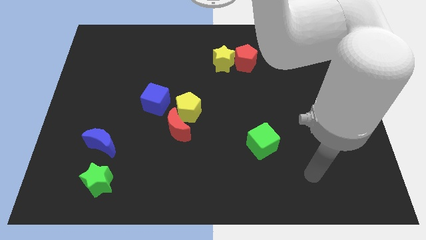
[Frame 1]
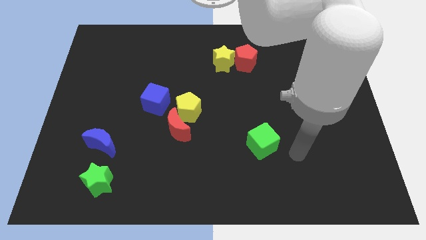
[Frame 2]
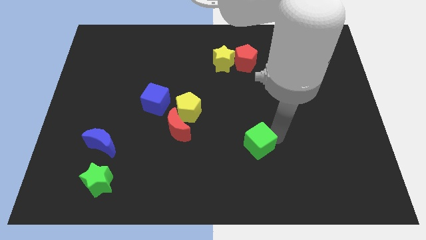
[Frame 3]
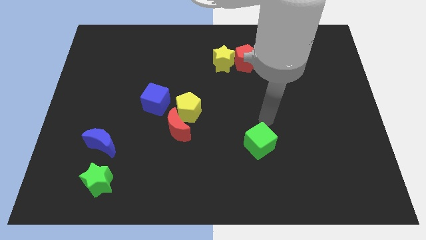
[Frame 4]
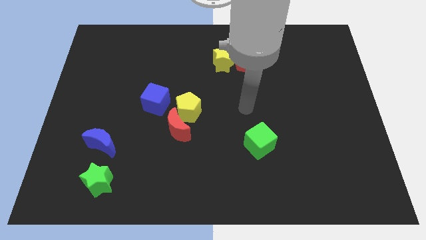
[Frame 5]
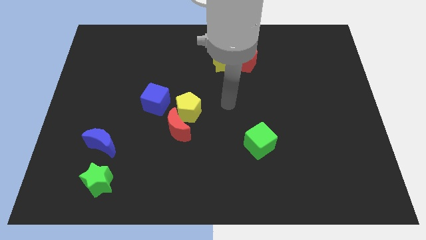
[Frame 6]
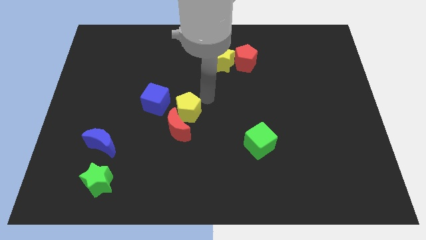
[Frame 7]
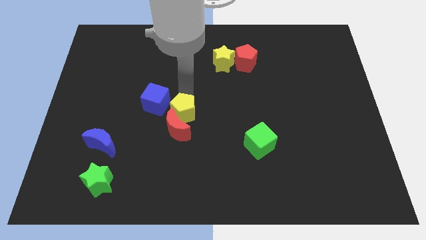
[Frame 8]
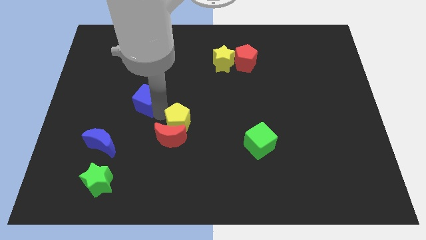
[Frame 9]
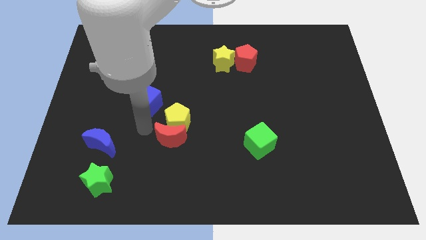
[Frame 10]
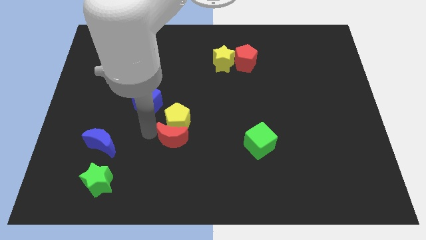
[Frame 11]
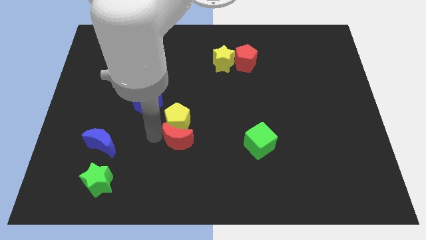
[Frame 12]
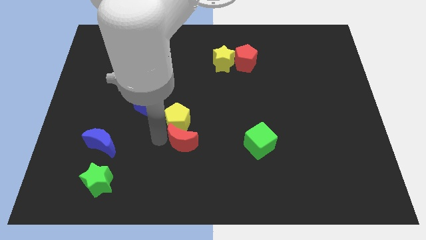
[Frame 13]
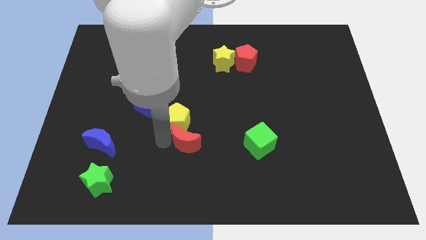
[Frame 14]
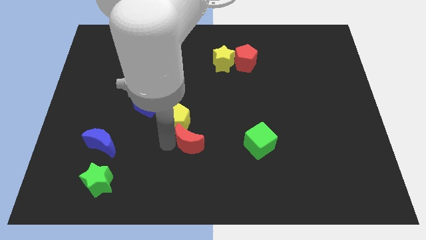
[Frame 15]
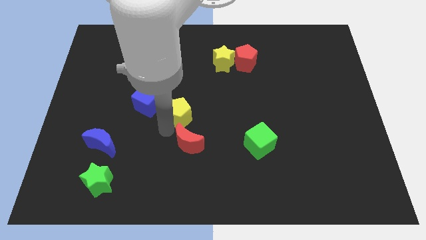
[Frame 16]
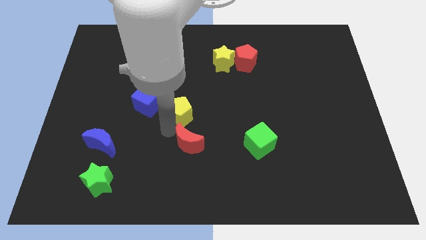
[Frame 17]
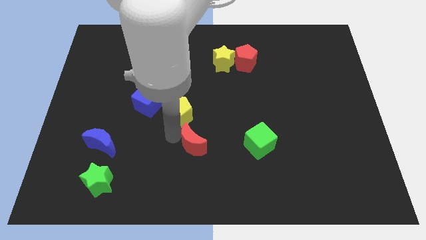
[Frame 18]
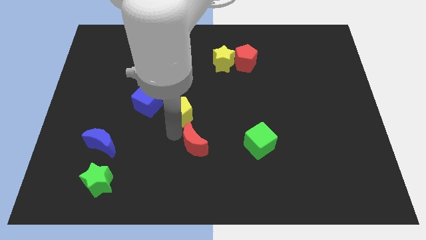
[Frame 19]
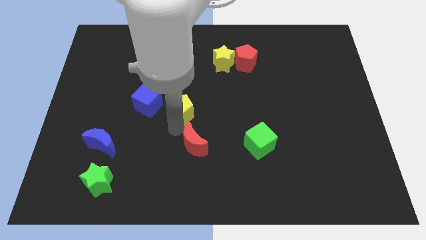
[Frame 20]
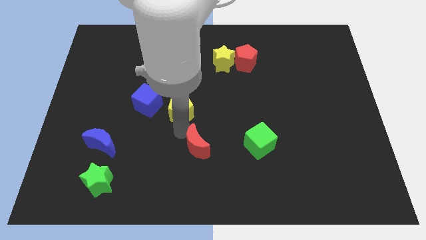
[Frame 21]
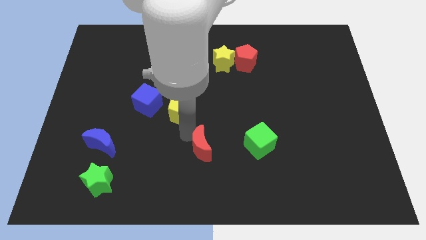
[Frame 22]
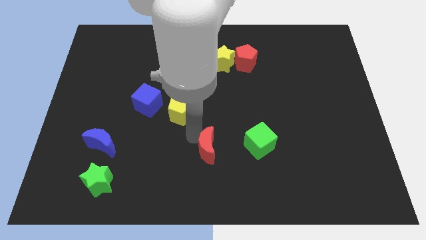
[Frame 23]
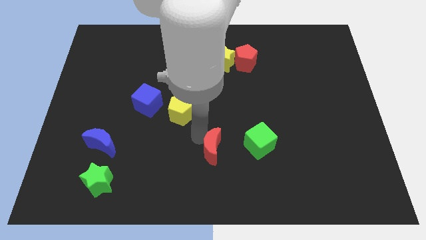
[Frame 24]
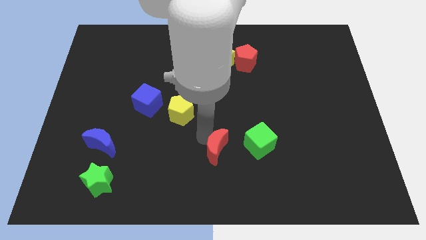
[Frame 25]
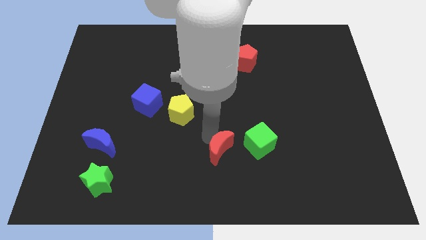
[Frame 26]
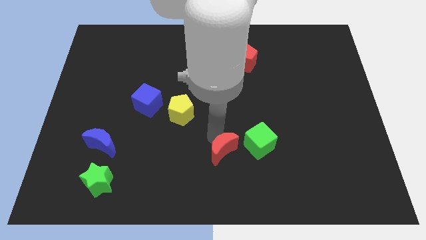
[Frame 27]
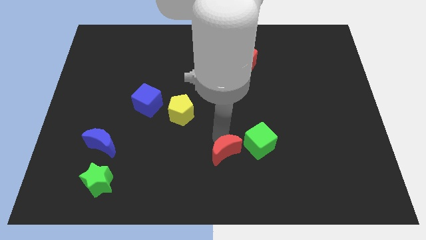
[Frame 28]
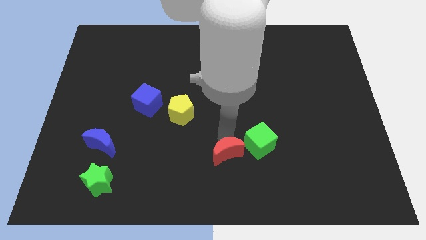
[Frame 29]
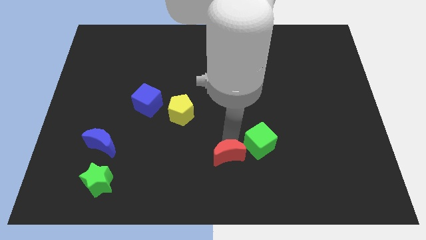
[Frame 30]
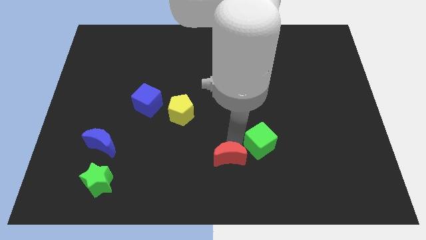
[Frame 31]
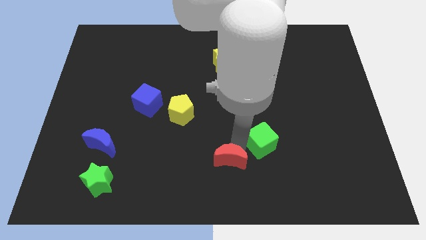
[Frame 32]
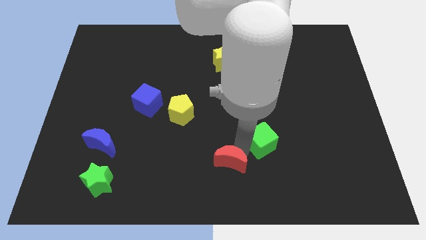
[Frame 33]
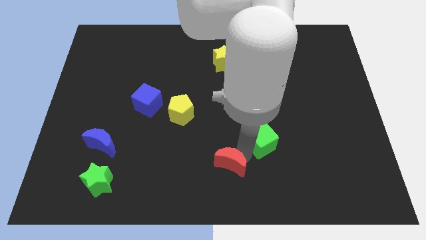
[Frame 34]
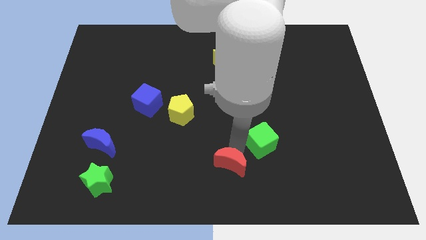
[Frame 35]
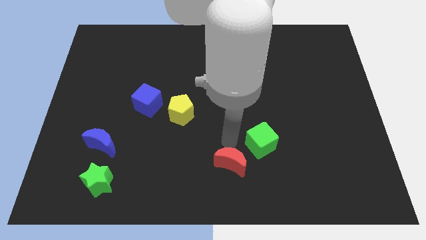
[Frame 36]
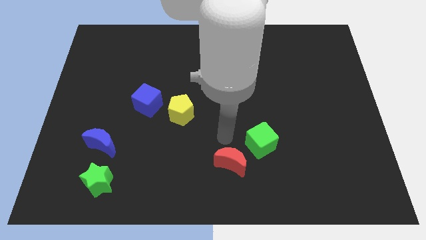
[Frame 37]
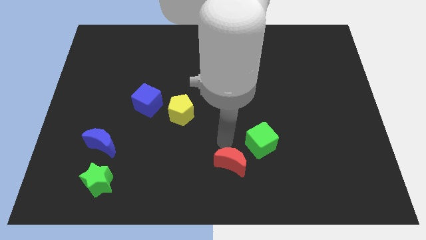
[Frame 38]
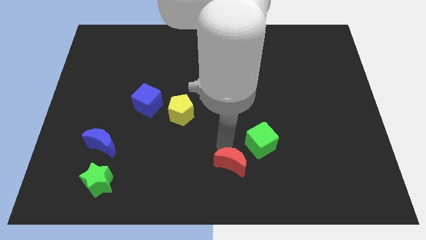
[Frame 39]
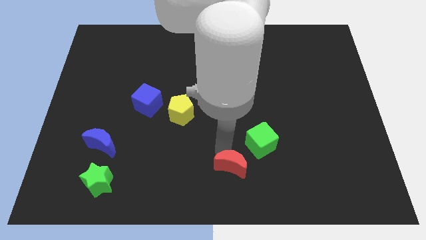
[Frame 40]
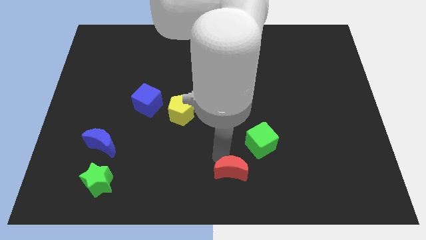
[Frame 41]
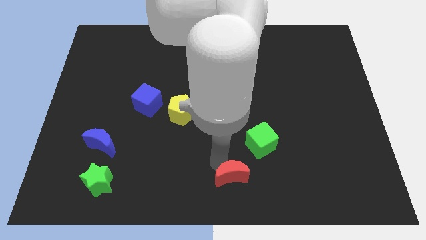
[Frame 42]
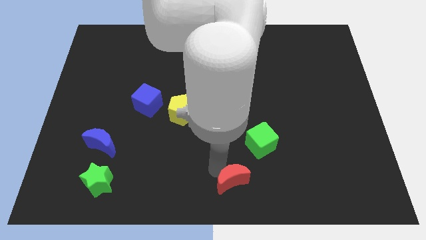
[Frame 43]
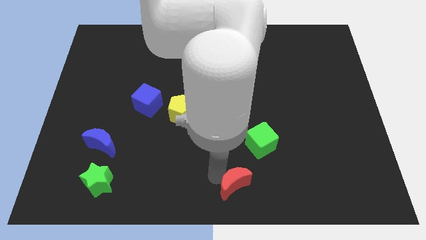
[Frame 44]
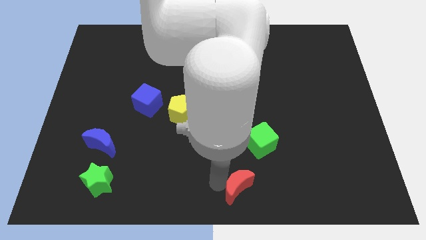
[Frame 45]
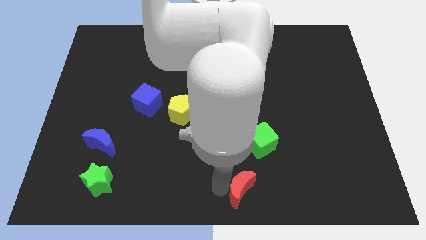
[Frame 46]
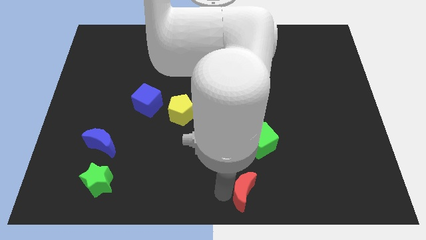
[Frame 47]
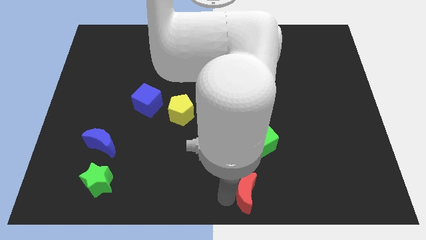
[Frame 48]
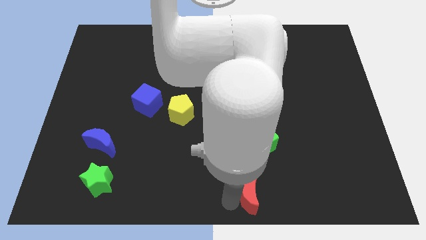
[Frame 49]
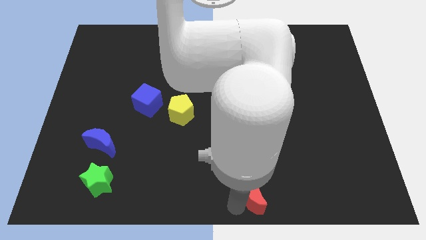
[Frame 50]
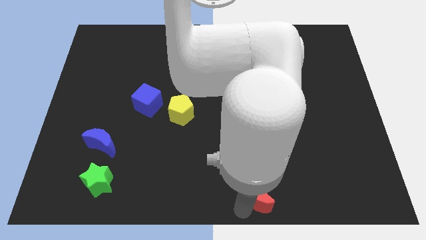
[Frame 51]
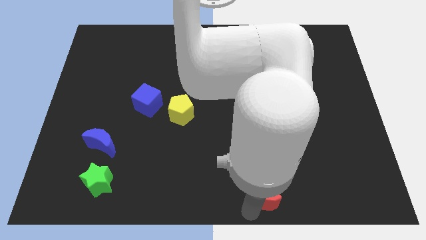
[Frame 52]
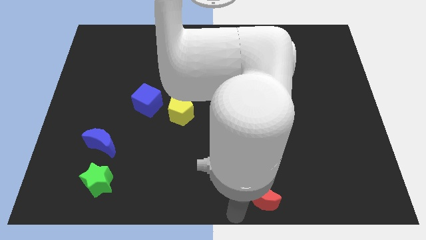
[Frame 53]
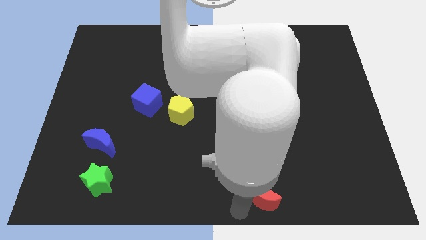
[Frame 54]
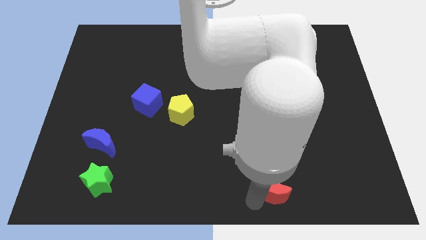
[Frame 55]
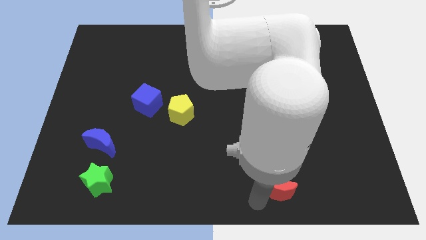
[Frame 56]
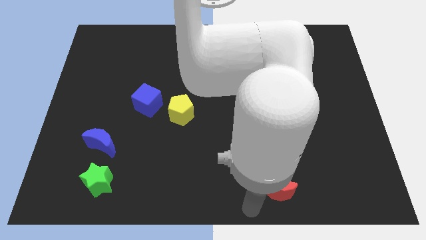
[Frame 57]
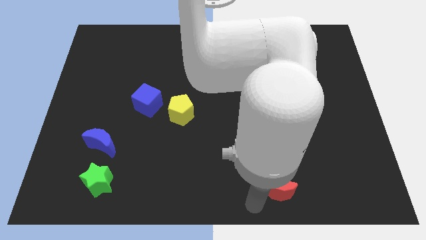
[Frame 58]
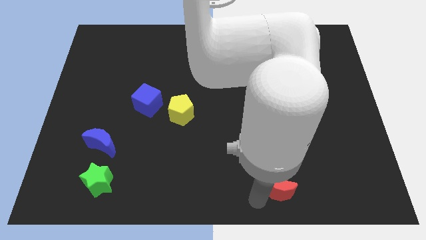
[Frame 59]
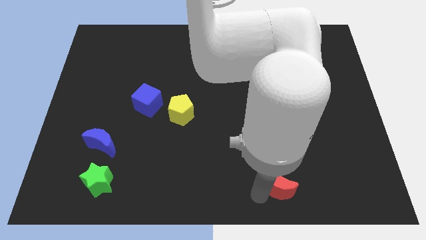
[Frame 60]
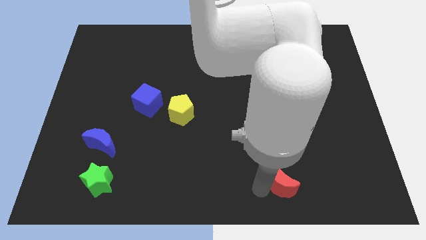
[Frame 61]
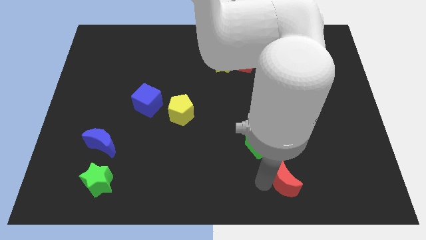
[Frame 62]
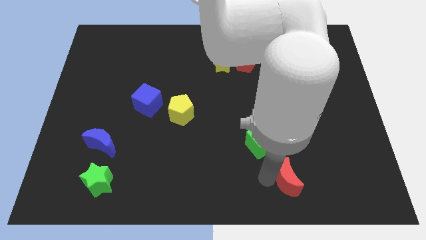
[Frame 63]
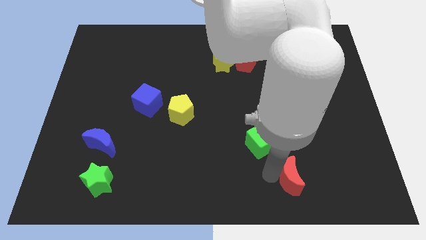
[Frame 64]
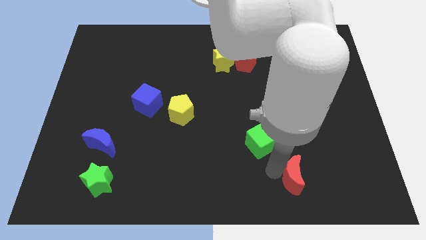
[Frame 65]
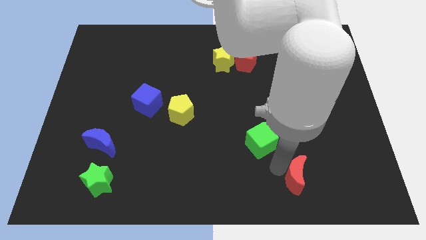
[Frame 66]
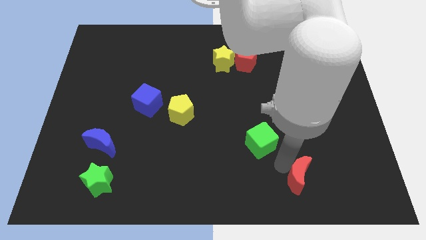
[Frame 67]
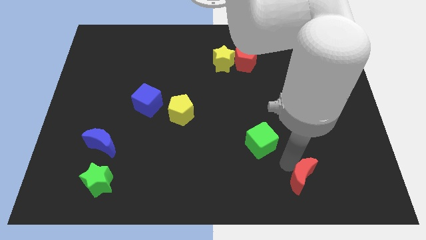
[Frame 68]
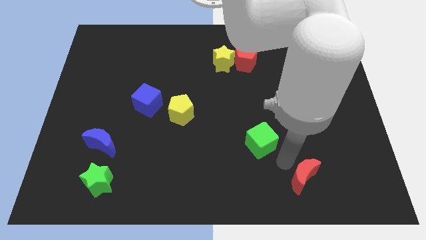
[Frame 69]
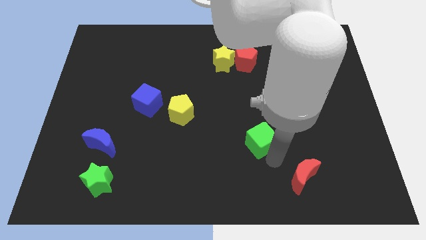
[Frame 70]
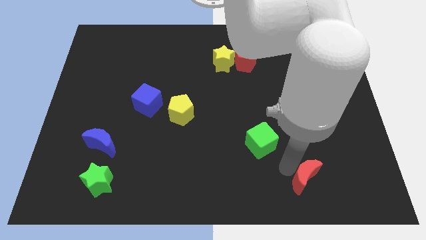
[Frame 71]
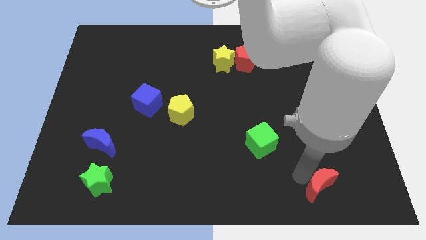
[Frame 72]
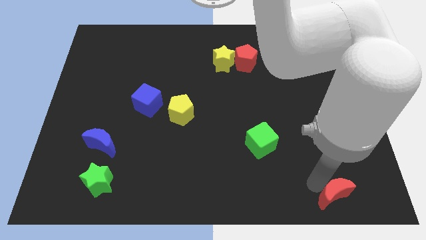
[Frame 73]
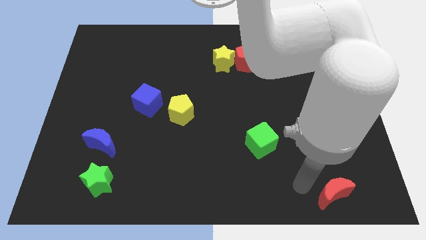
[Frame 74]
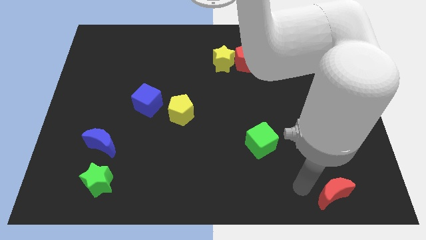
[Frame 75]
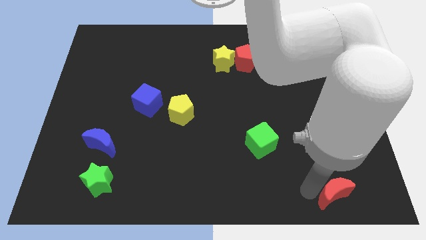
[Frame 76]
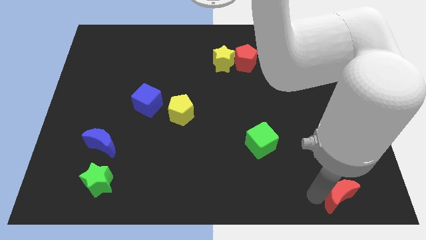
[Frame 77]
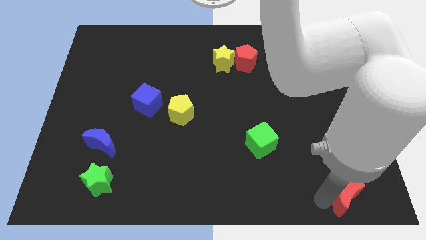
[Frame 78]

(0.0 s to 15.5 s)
put the red moon to the bottom right corner
